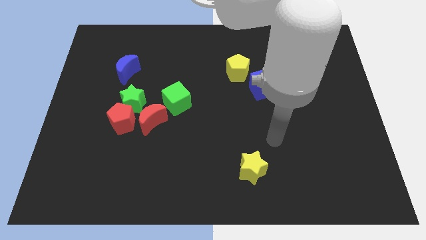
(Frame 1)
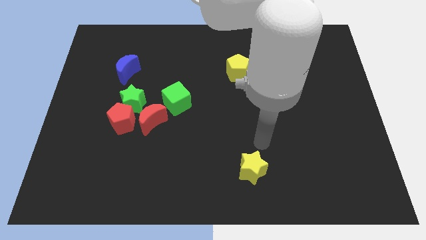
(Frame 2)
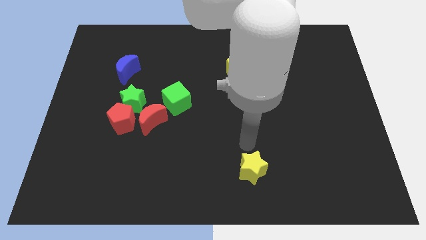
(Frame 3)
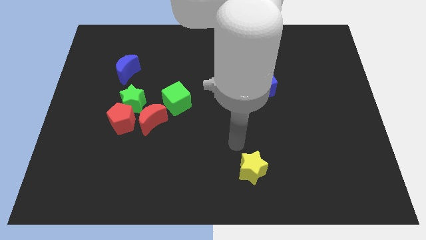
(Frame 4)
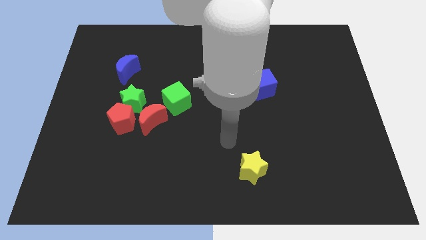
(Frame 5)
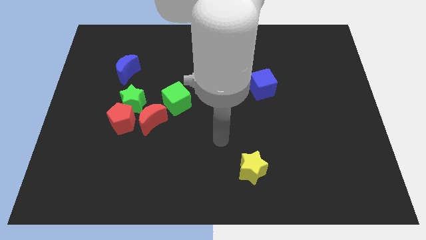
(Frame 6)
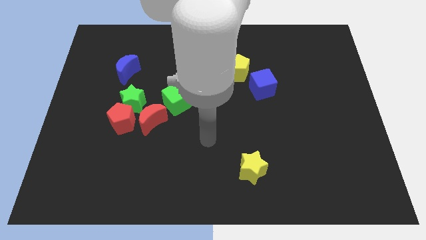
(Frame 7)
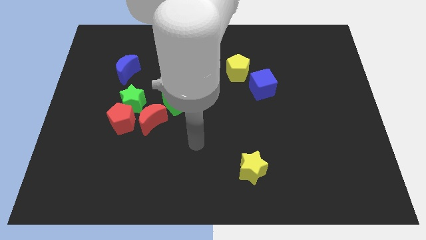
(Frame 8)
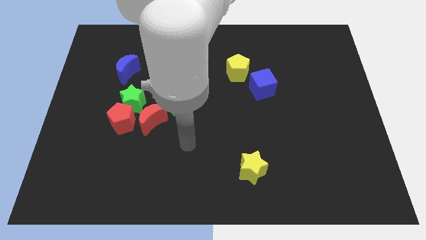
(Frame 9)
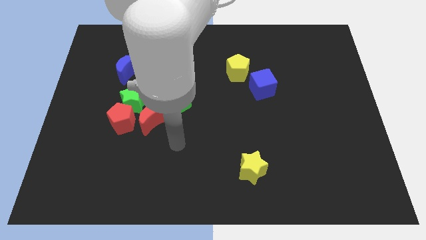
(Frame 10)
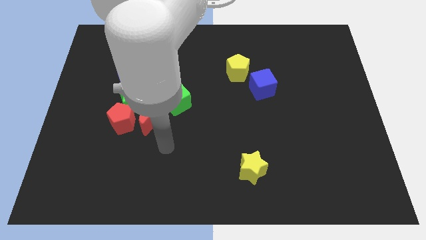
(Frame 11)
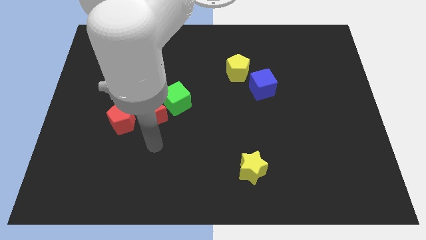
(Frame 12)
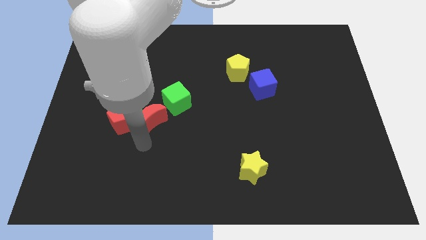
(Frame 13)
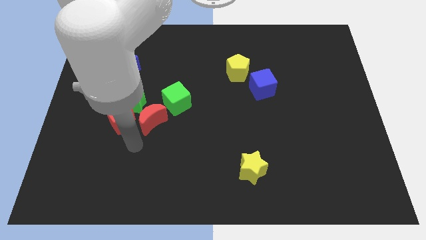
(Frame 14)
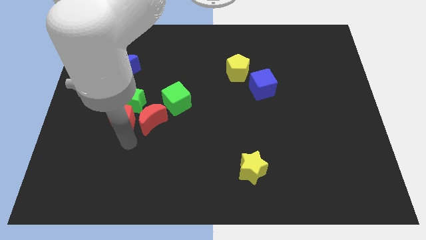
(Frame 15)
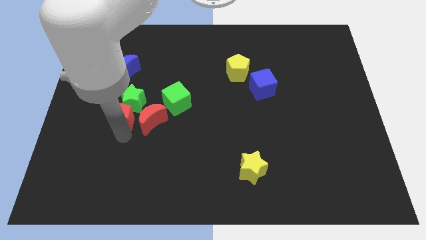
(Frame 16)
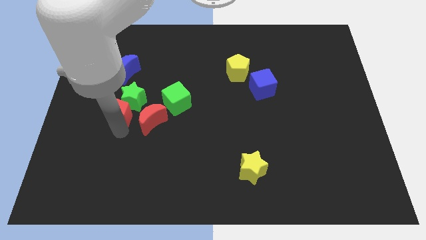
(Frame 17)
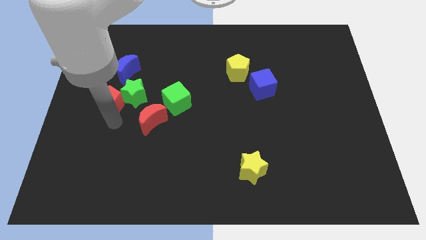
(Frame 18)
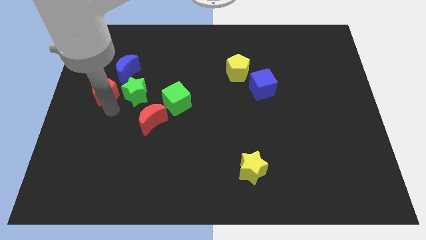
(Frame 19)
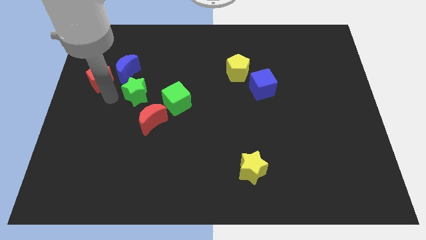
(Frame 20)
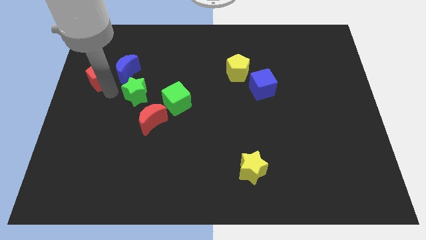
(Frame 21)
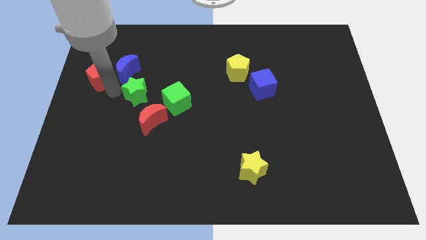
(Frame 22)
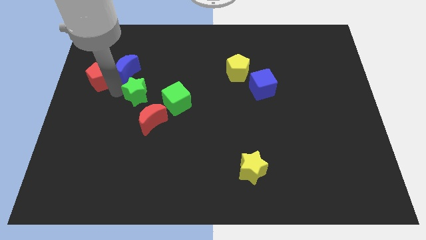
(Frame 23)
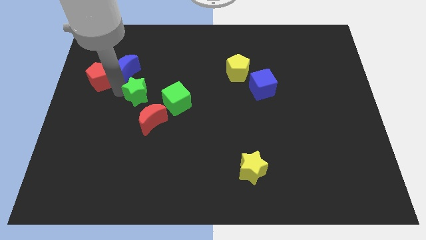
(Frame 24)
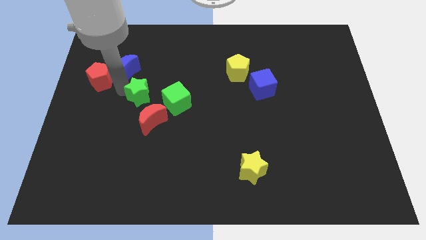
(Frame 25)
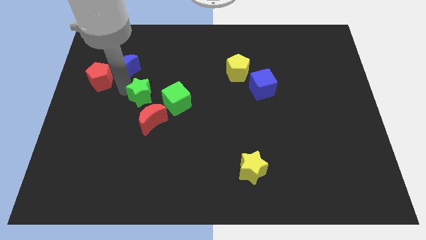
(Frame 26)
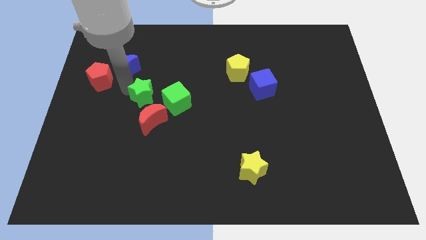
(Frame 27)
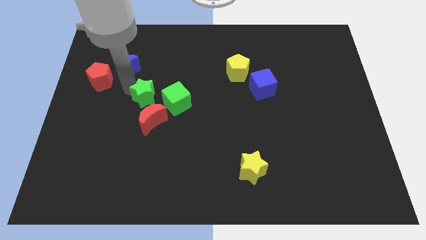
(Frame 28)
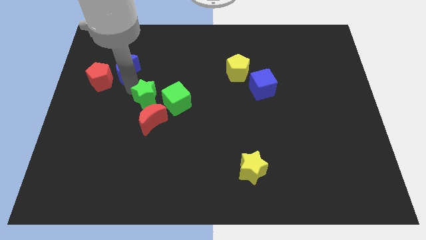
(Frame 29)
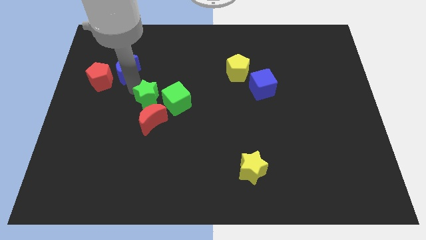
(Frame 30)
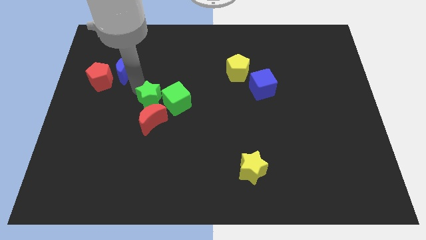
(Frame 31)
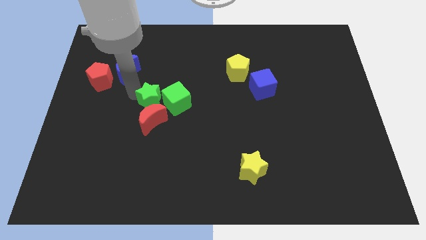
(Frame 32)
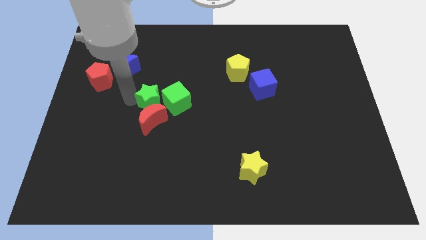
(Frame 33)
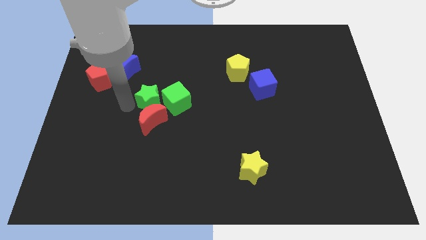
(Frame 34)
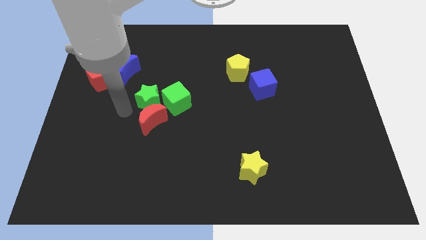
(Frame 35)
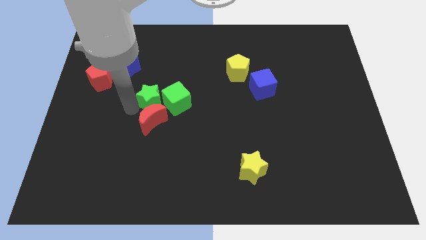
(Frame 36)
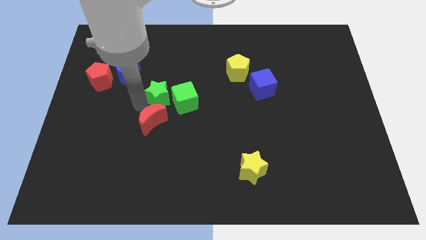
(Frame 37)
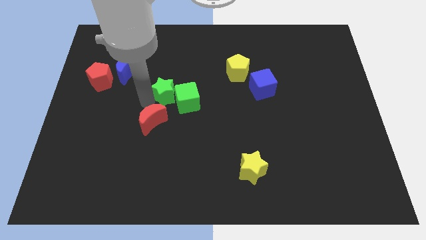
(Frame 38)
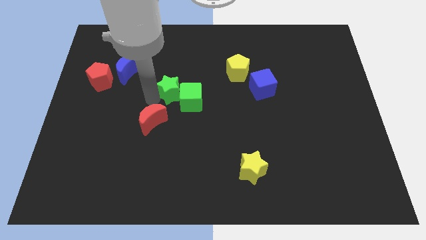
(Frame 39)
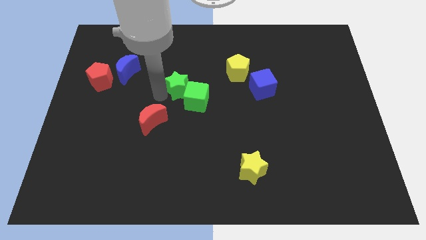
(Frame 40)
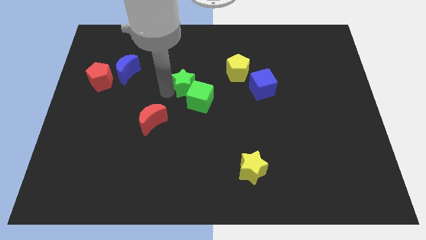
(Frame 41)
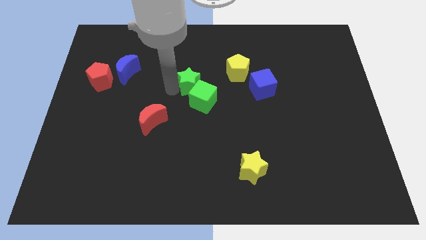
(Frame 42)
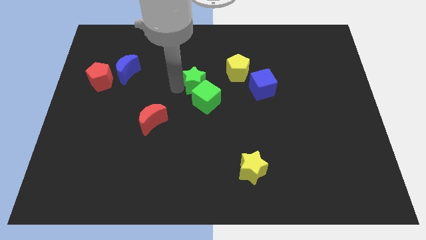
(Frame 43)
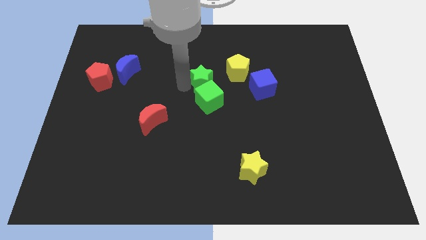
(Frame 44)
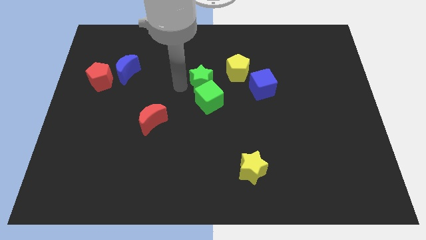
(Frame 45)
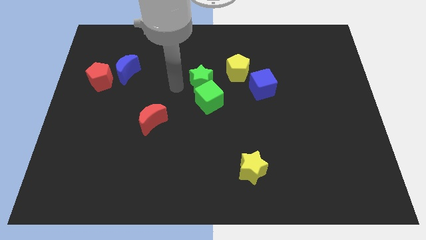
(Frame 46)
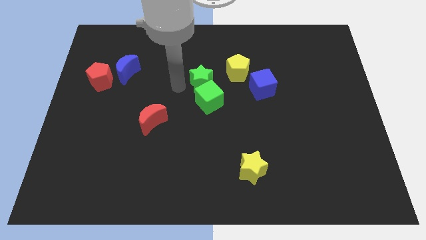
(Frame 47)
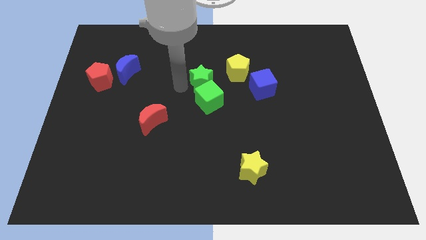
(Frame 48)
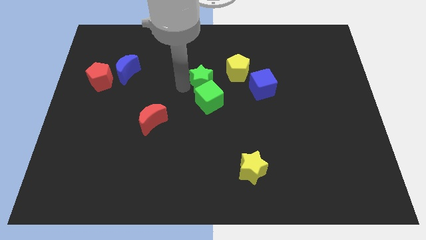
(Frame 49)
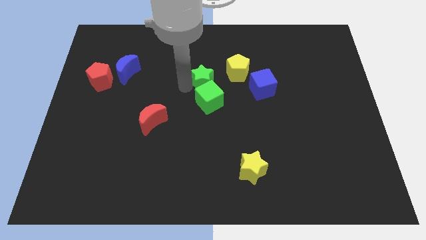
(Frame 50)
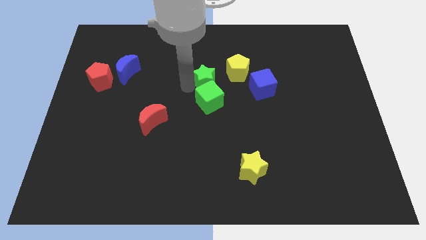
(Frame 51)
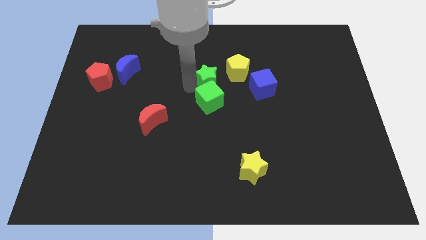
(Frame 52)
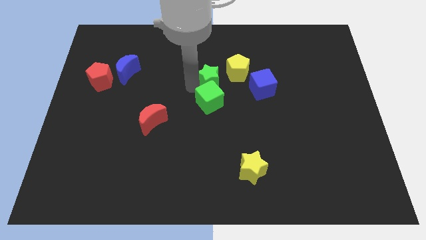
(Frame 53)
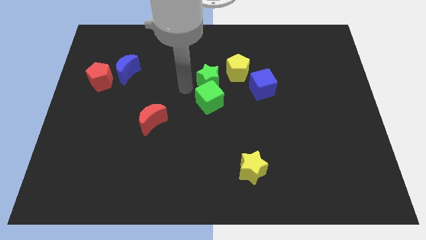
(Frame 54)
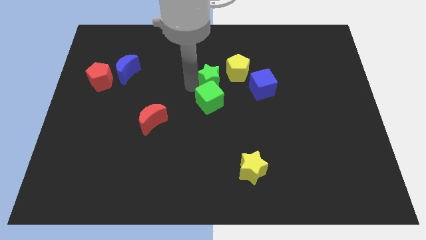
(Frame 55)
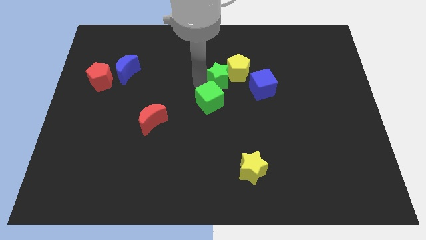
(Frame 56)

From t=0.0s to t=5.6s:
slide the green star towards the yellow pentagon

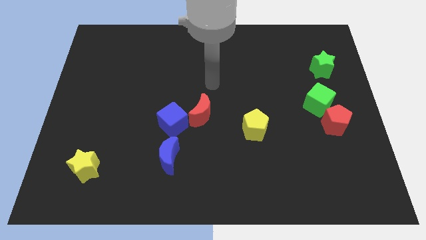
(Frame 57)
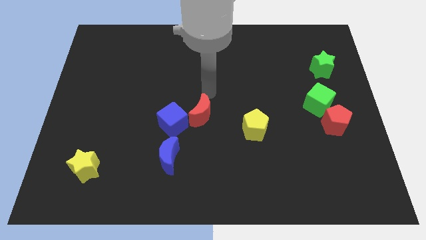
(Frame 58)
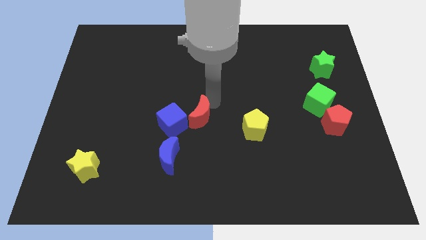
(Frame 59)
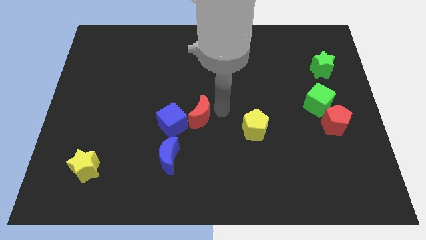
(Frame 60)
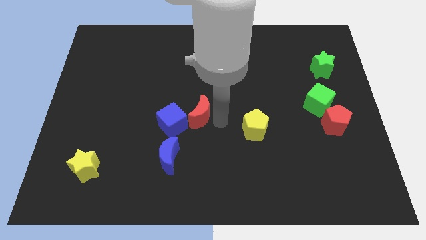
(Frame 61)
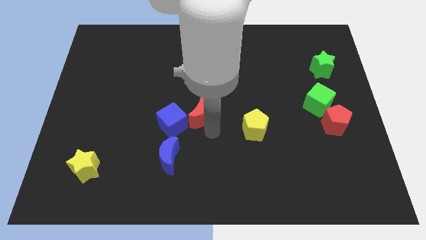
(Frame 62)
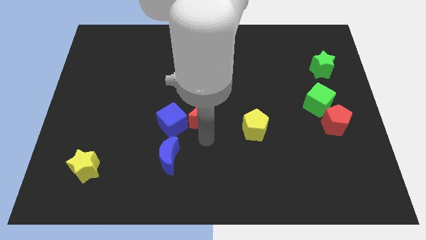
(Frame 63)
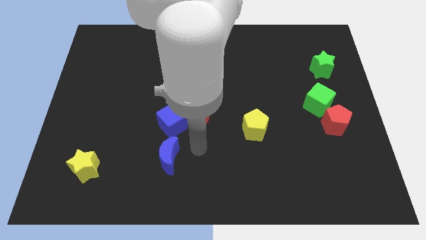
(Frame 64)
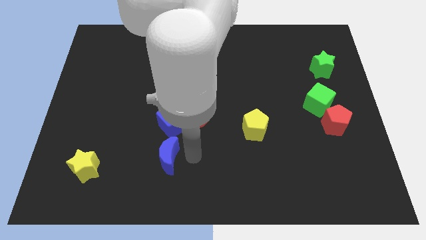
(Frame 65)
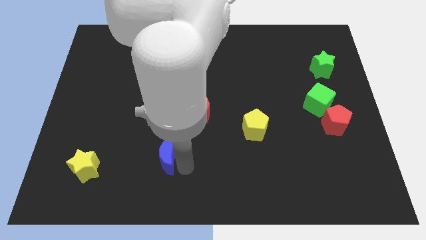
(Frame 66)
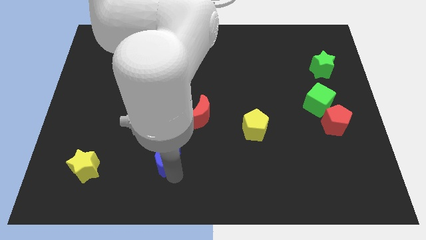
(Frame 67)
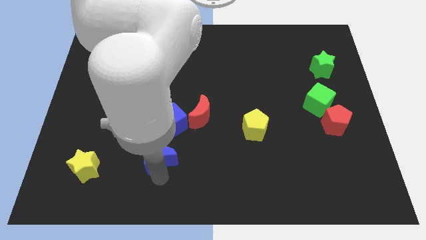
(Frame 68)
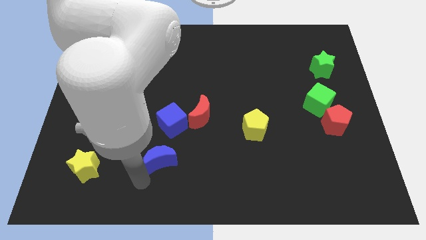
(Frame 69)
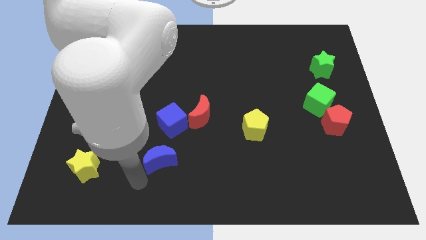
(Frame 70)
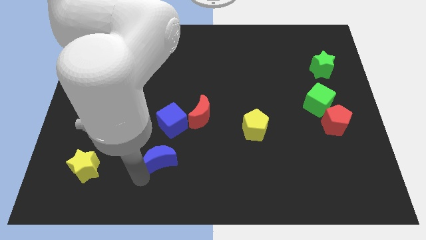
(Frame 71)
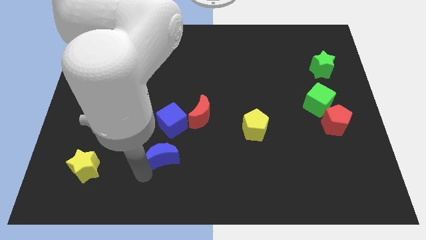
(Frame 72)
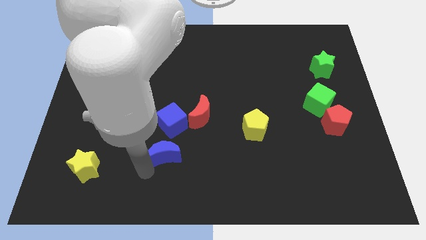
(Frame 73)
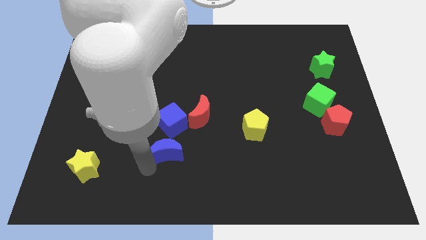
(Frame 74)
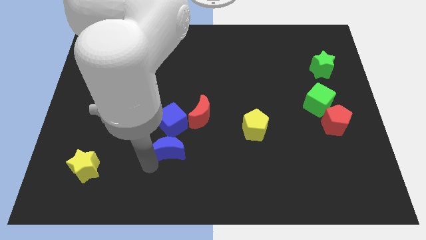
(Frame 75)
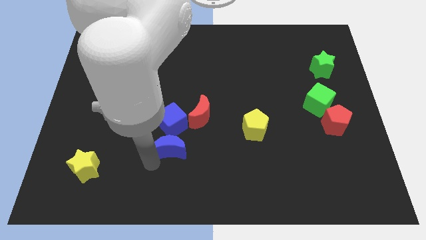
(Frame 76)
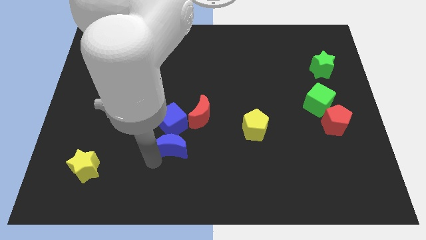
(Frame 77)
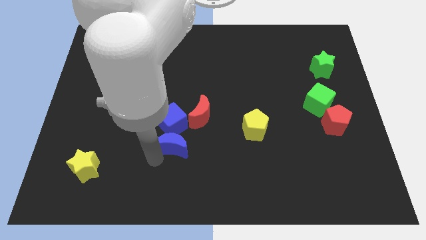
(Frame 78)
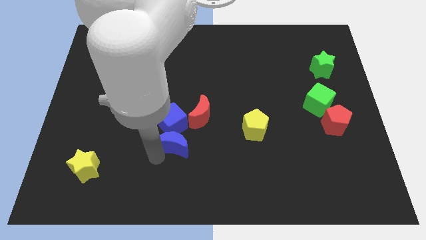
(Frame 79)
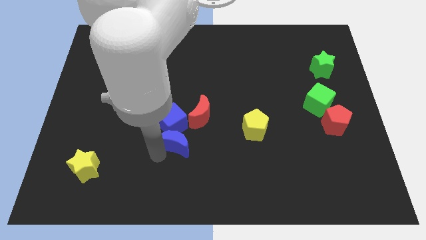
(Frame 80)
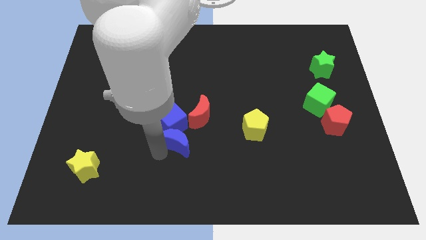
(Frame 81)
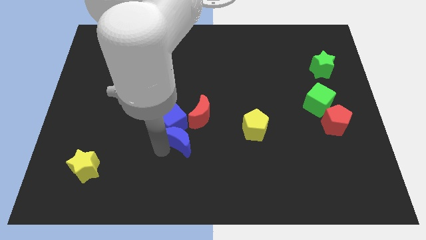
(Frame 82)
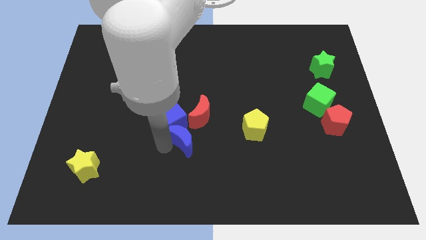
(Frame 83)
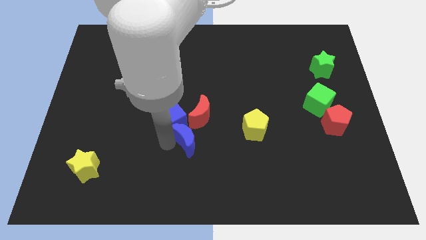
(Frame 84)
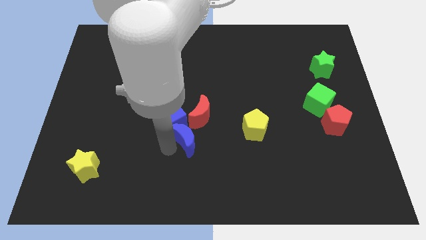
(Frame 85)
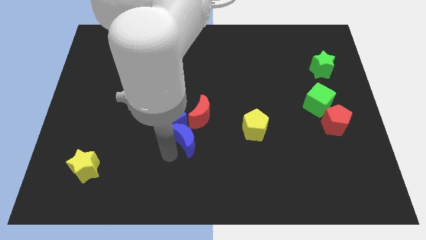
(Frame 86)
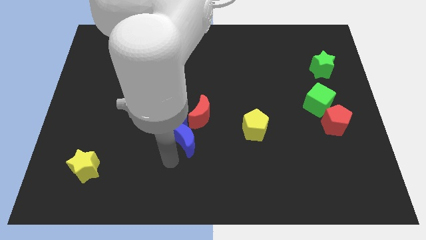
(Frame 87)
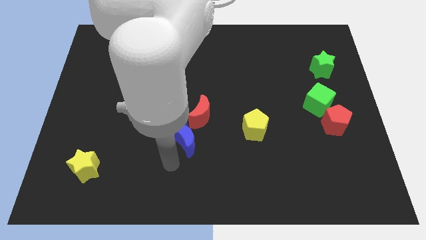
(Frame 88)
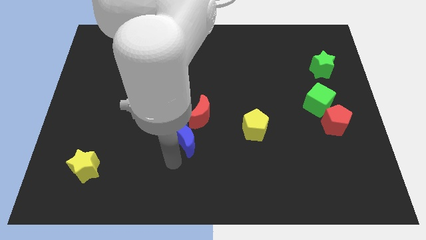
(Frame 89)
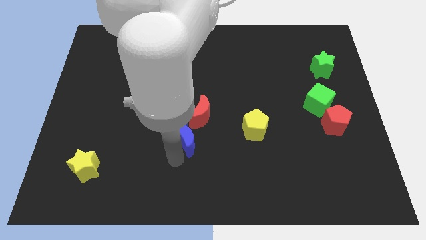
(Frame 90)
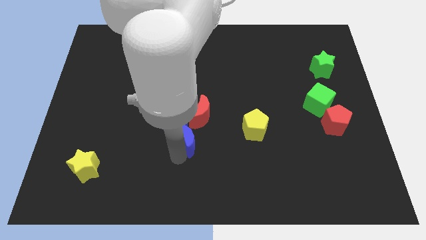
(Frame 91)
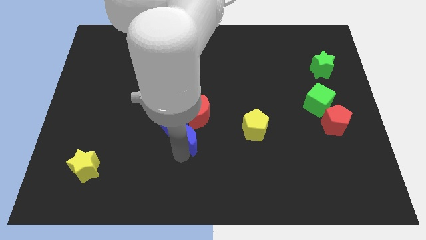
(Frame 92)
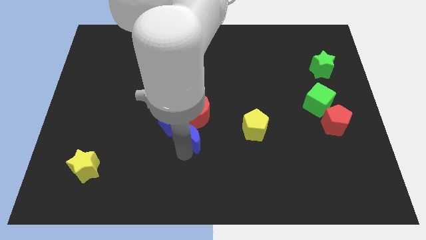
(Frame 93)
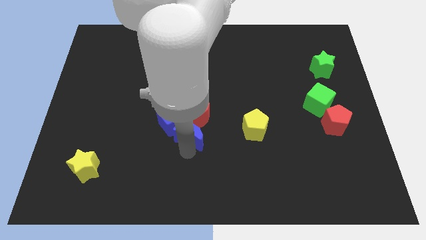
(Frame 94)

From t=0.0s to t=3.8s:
put the blue moon to the red moon
